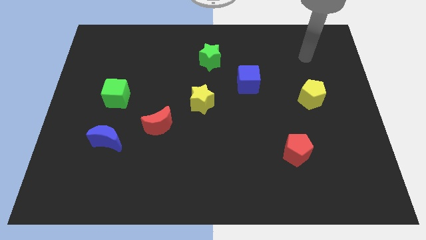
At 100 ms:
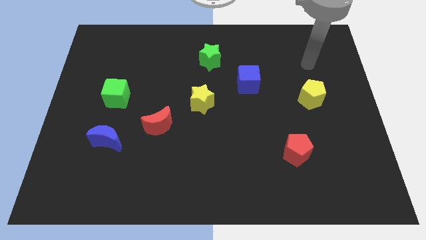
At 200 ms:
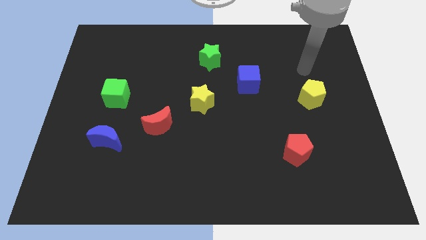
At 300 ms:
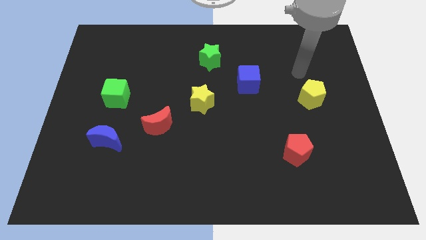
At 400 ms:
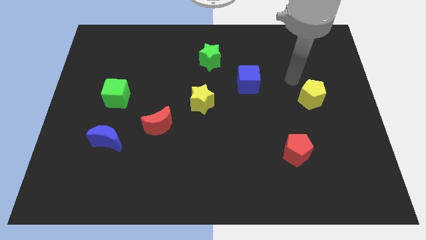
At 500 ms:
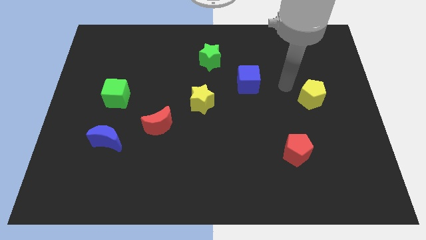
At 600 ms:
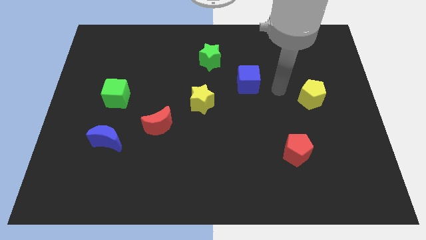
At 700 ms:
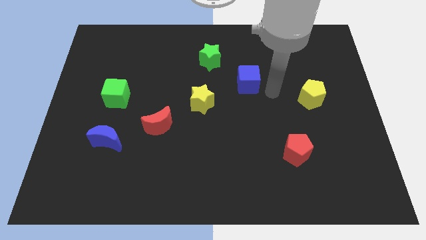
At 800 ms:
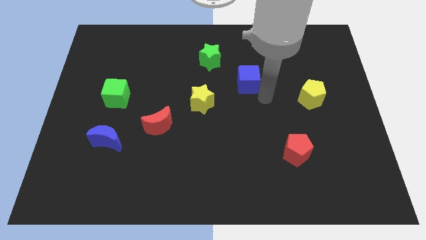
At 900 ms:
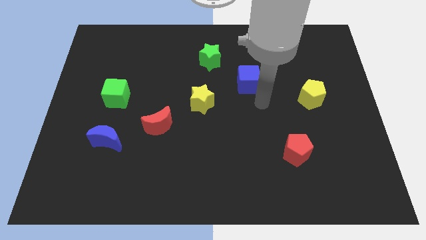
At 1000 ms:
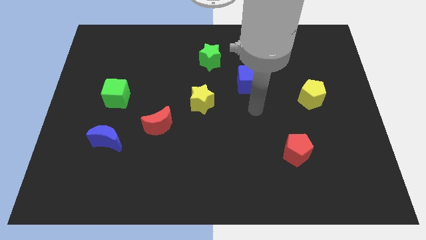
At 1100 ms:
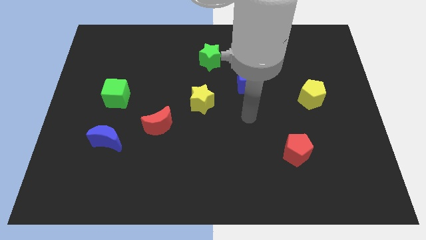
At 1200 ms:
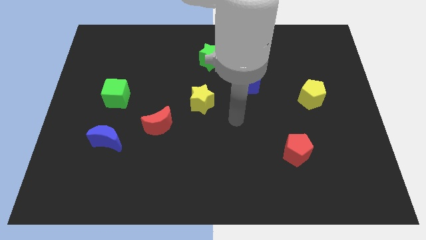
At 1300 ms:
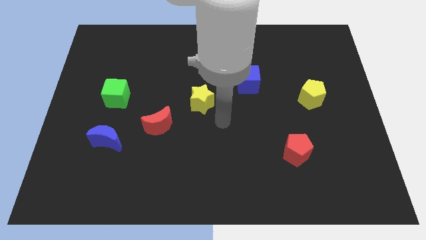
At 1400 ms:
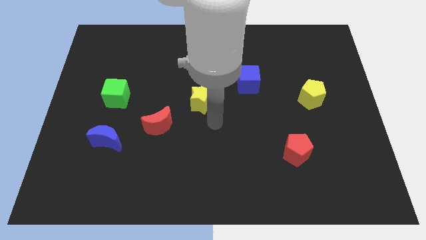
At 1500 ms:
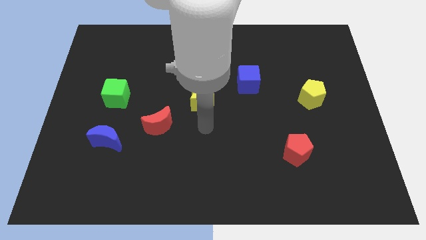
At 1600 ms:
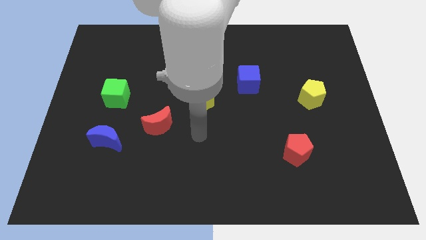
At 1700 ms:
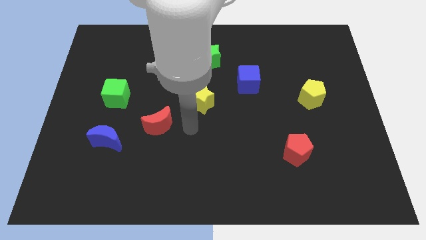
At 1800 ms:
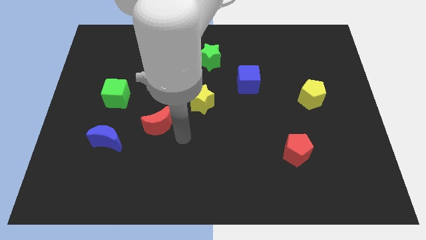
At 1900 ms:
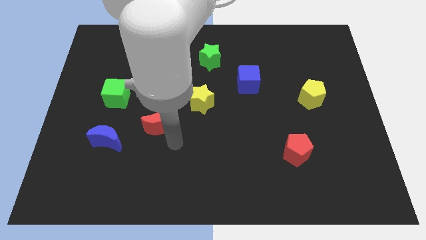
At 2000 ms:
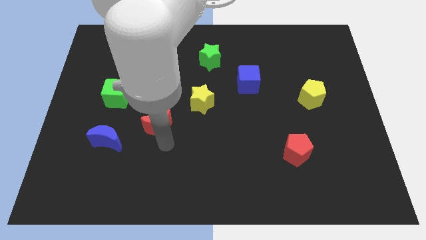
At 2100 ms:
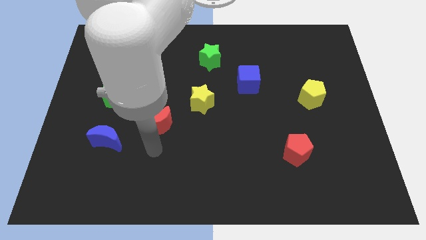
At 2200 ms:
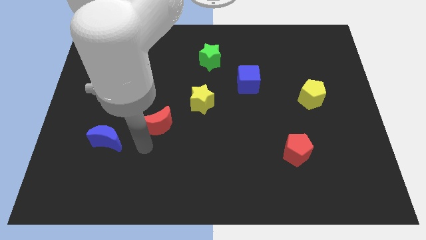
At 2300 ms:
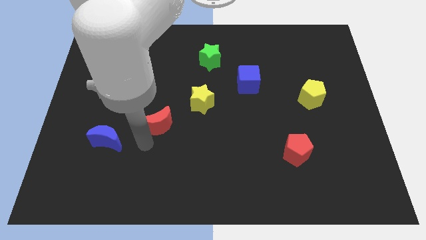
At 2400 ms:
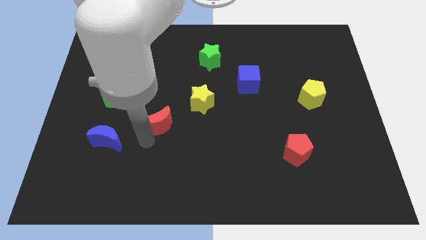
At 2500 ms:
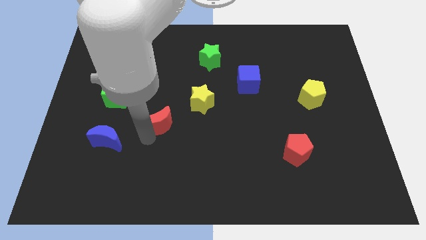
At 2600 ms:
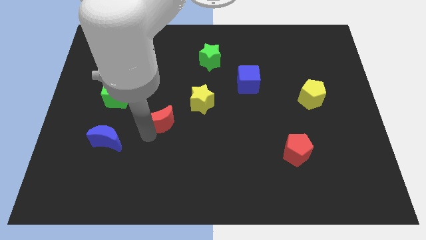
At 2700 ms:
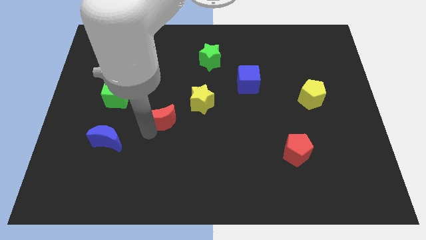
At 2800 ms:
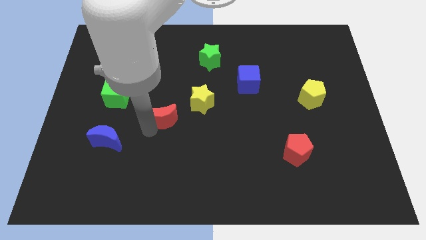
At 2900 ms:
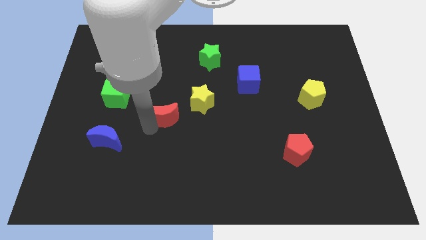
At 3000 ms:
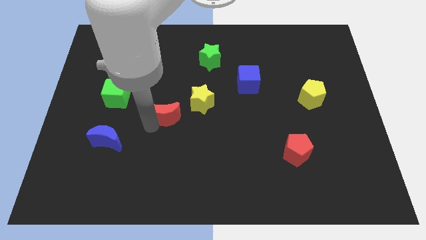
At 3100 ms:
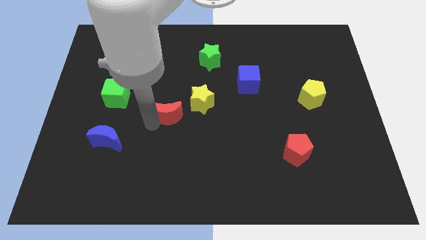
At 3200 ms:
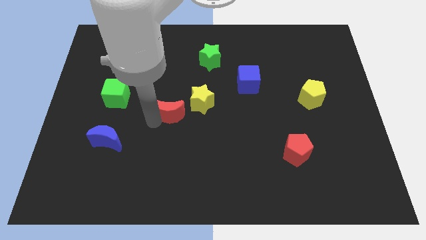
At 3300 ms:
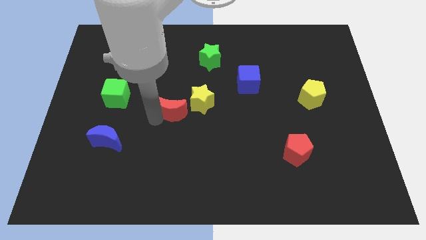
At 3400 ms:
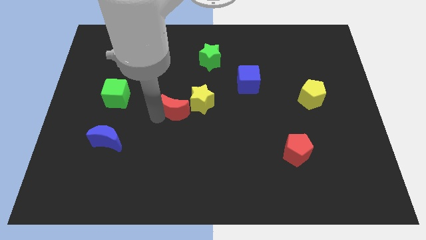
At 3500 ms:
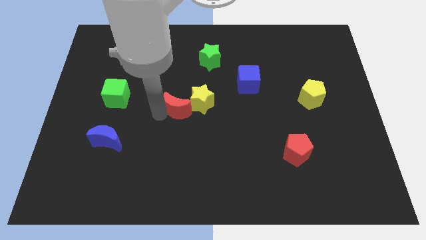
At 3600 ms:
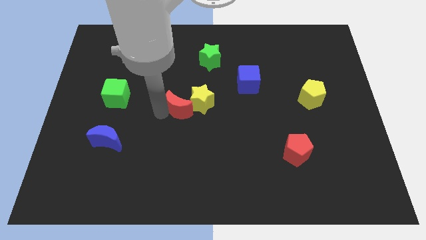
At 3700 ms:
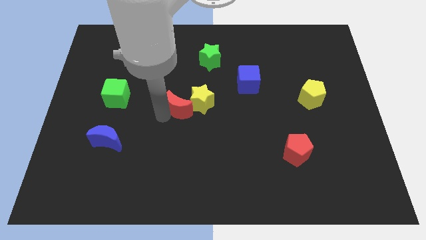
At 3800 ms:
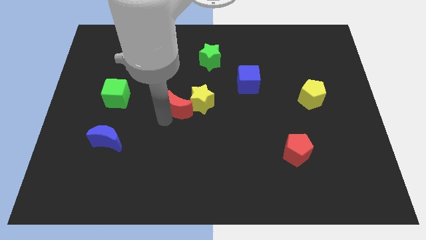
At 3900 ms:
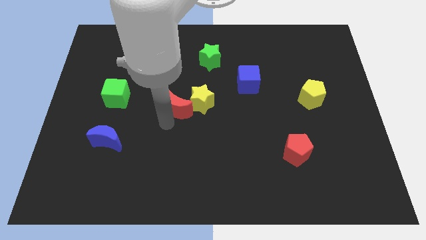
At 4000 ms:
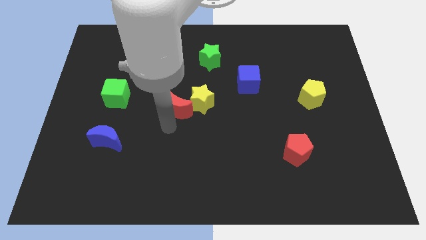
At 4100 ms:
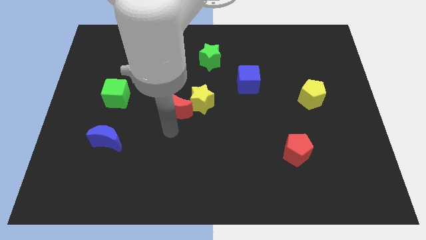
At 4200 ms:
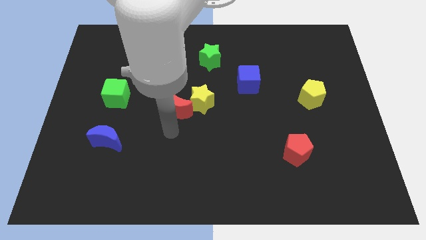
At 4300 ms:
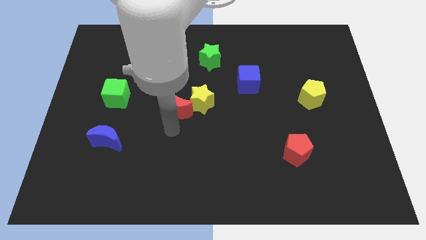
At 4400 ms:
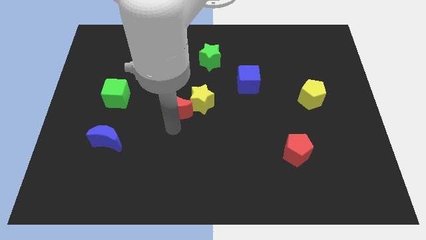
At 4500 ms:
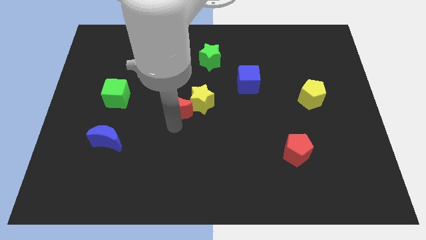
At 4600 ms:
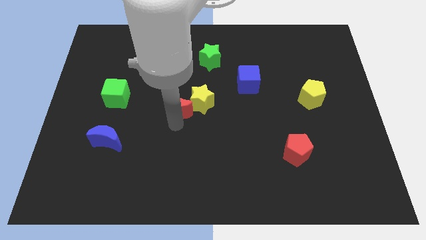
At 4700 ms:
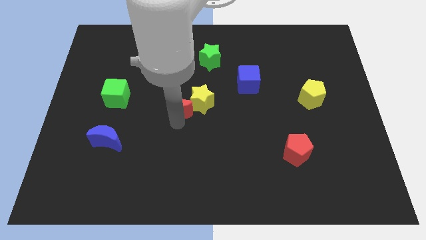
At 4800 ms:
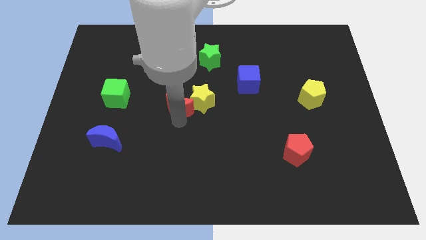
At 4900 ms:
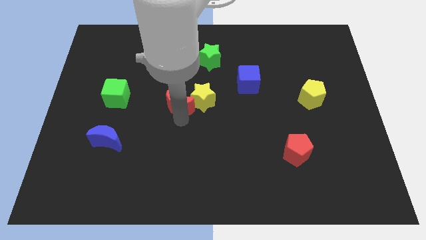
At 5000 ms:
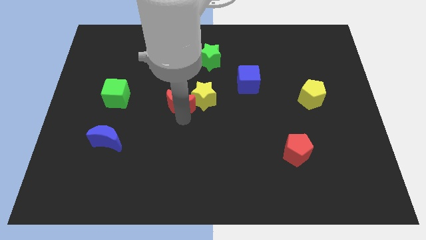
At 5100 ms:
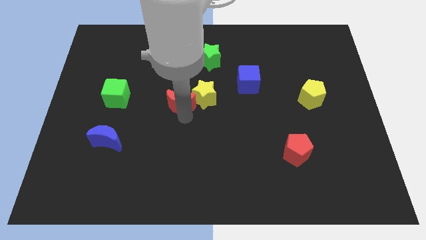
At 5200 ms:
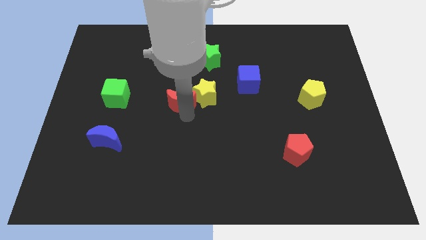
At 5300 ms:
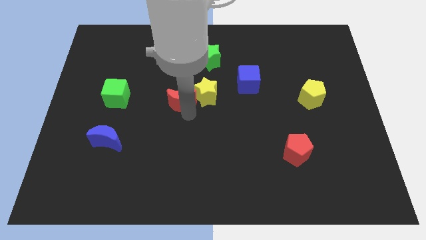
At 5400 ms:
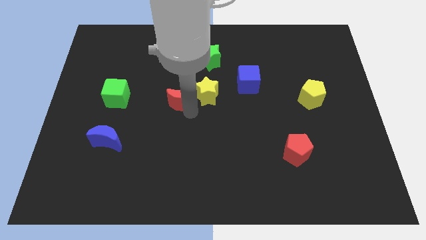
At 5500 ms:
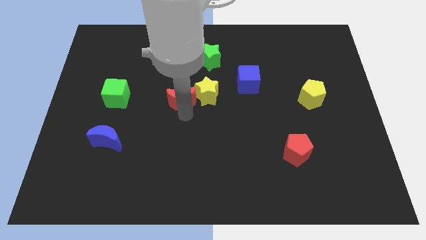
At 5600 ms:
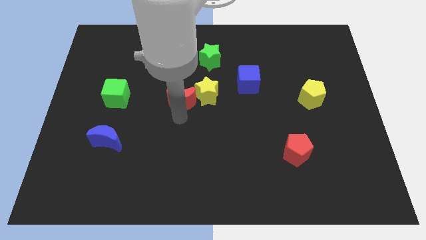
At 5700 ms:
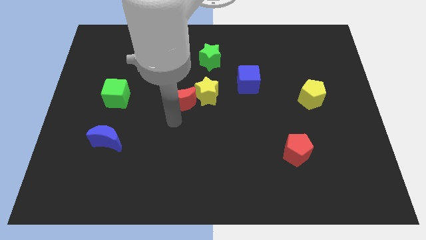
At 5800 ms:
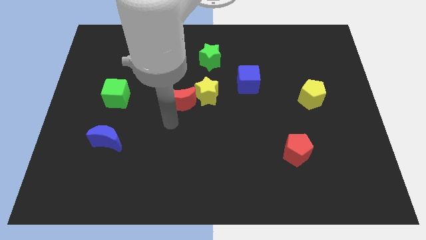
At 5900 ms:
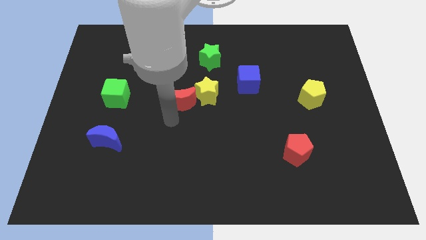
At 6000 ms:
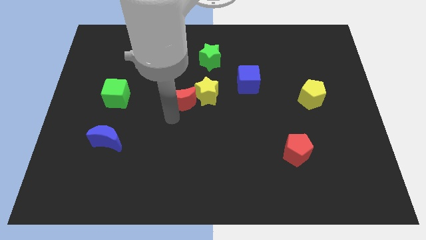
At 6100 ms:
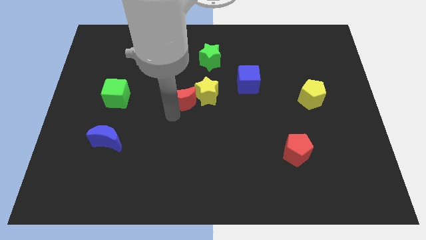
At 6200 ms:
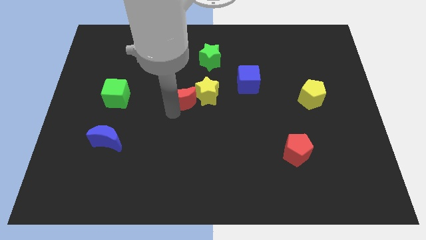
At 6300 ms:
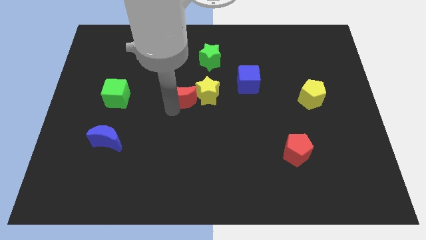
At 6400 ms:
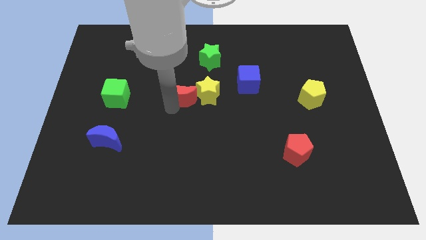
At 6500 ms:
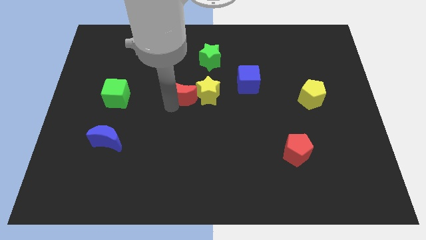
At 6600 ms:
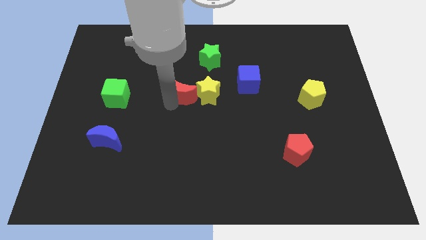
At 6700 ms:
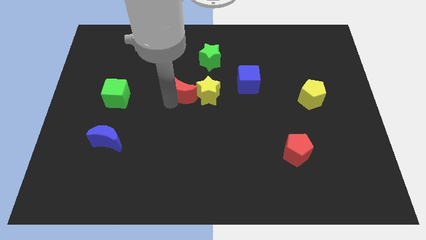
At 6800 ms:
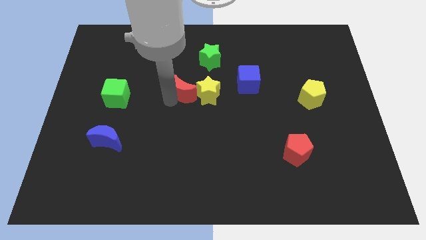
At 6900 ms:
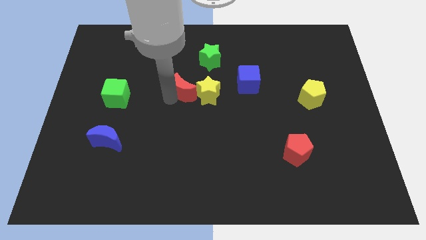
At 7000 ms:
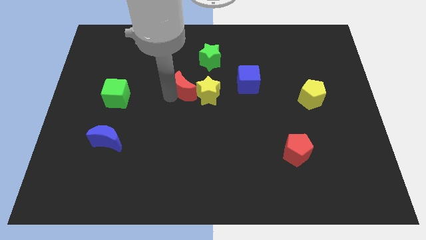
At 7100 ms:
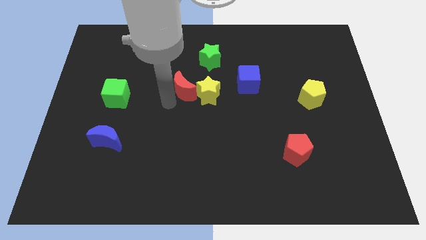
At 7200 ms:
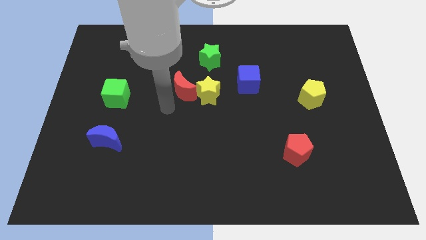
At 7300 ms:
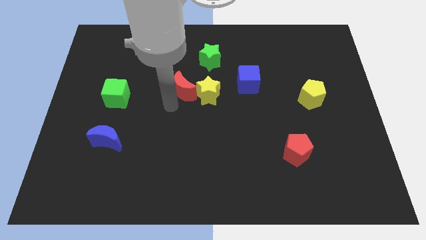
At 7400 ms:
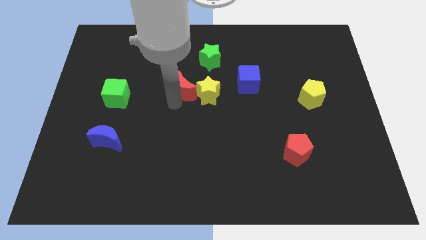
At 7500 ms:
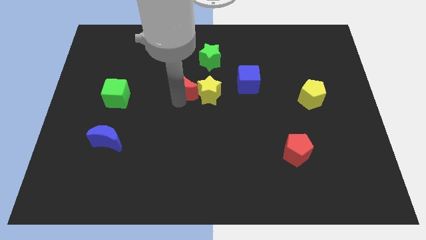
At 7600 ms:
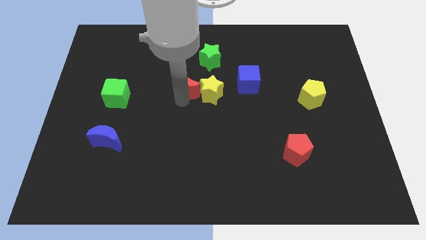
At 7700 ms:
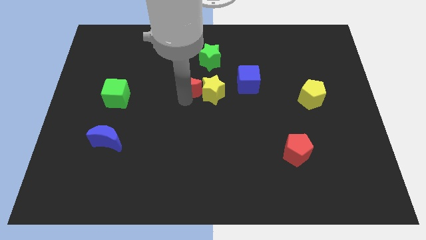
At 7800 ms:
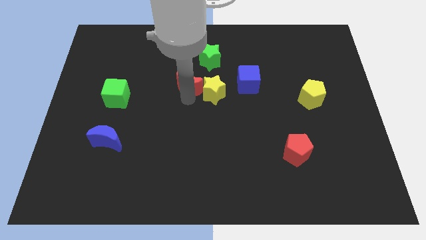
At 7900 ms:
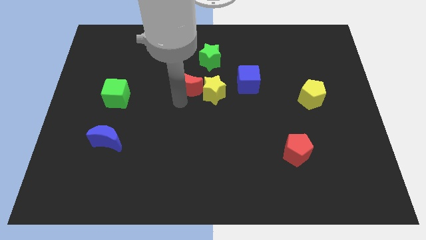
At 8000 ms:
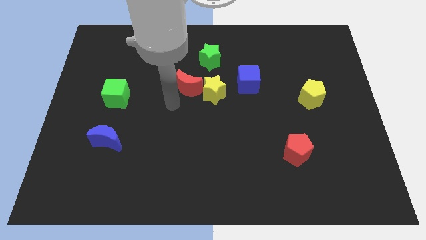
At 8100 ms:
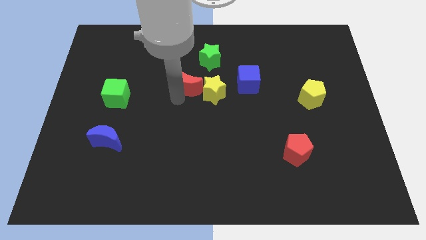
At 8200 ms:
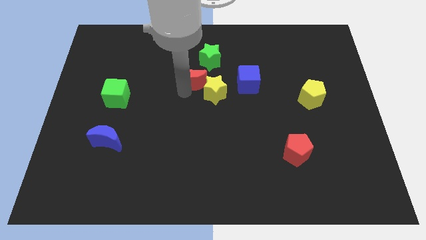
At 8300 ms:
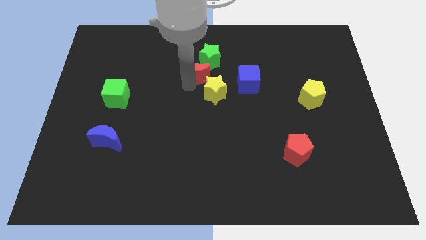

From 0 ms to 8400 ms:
push the red moon to the top of the yellow star
